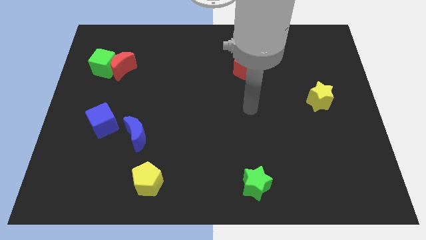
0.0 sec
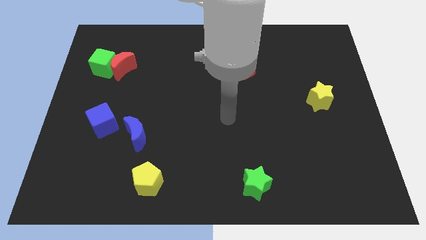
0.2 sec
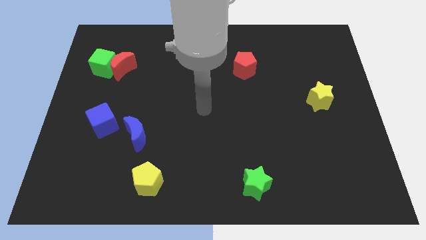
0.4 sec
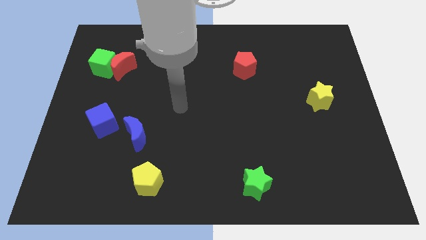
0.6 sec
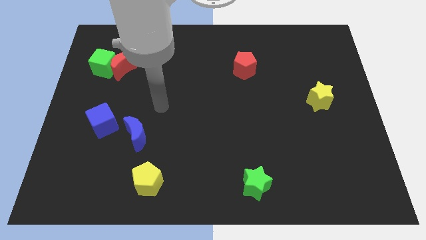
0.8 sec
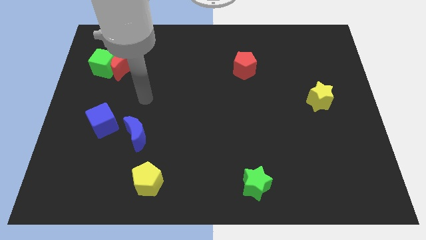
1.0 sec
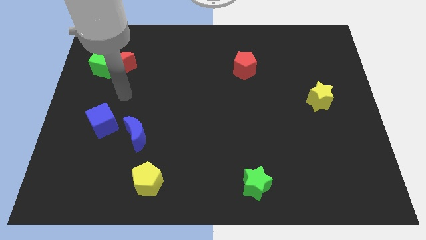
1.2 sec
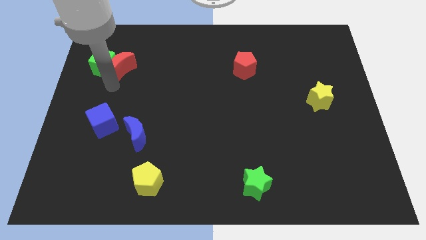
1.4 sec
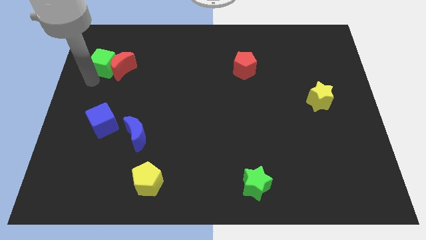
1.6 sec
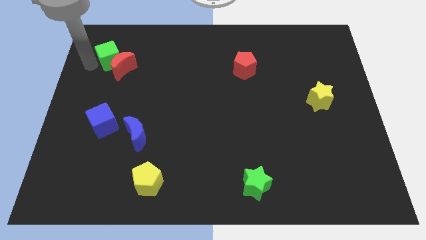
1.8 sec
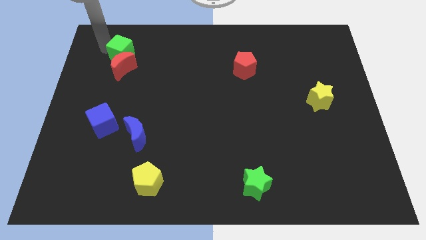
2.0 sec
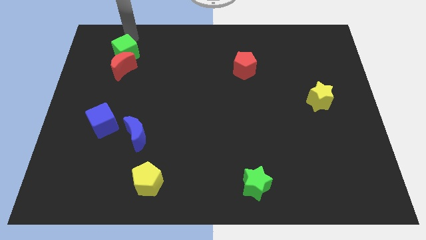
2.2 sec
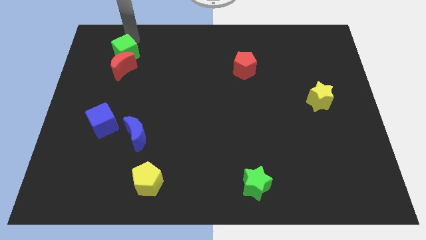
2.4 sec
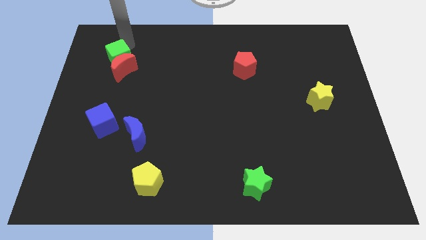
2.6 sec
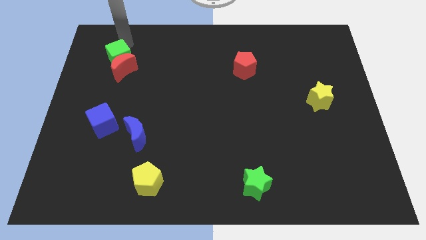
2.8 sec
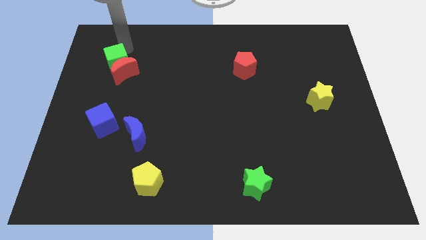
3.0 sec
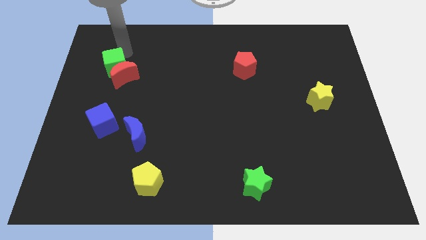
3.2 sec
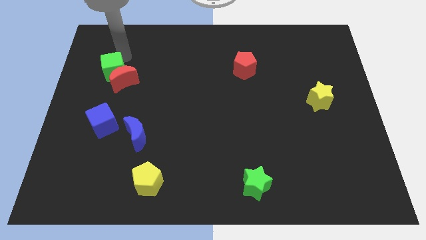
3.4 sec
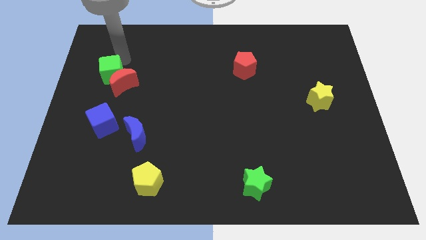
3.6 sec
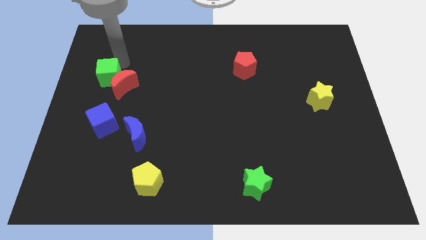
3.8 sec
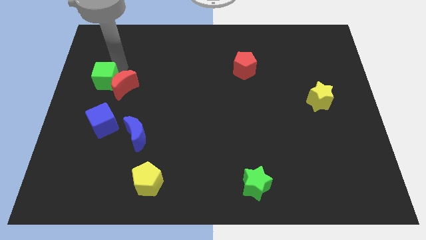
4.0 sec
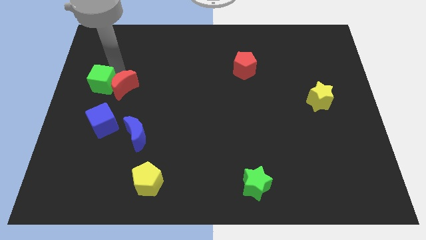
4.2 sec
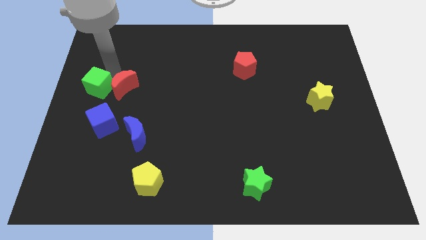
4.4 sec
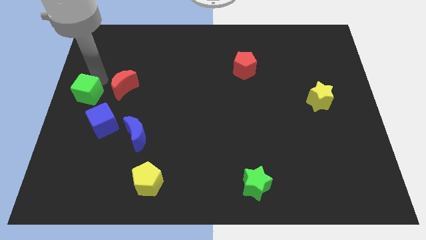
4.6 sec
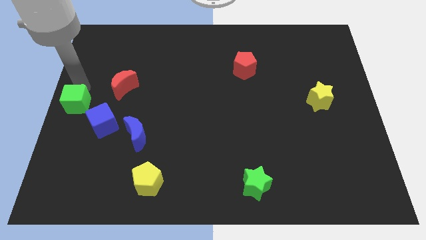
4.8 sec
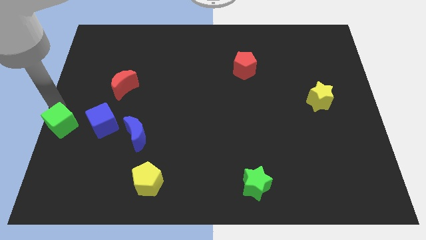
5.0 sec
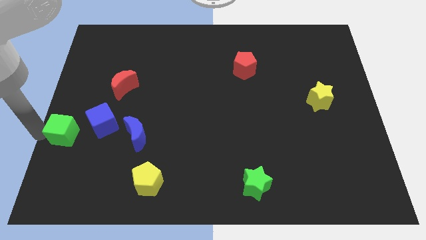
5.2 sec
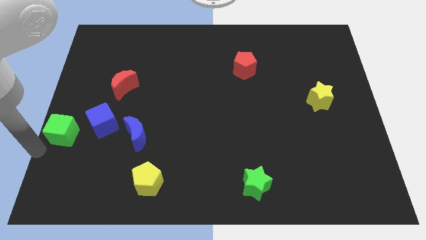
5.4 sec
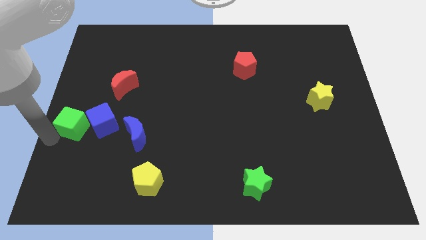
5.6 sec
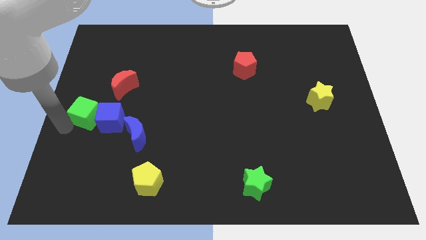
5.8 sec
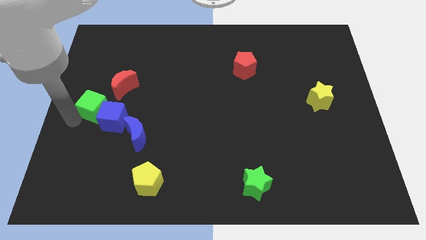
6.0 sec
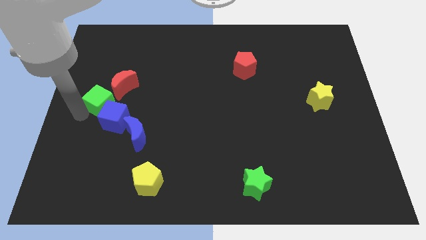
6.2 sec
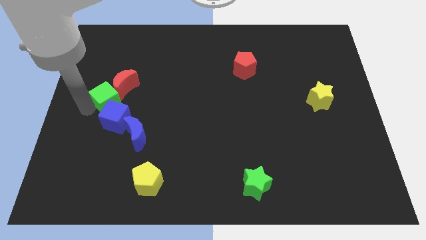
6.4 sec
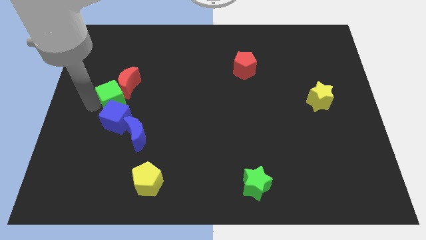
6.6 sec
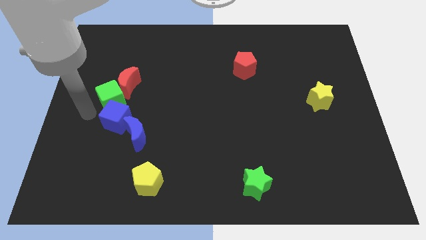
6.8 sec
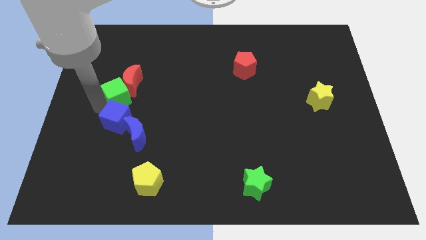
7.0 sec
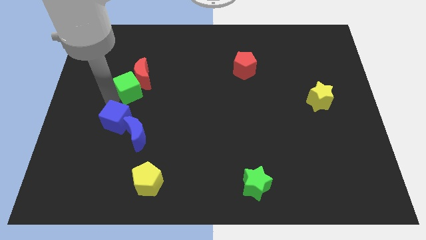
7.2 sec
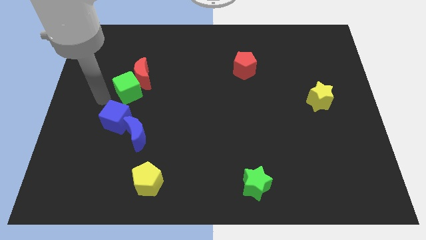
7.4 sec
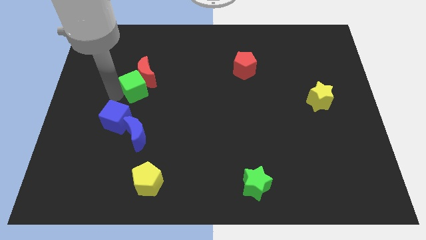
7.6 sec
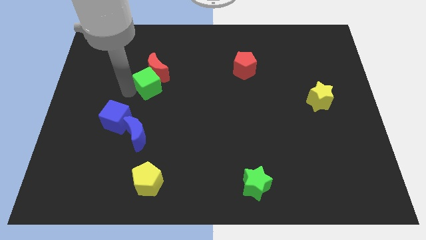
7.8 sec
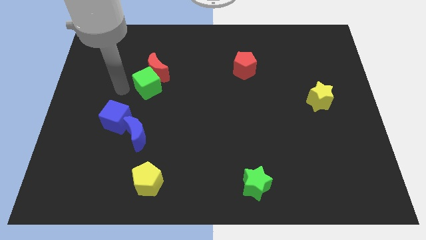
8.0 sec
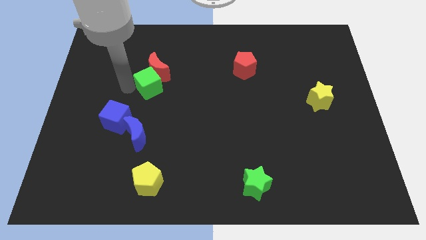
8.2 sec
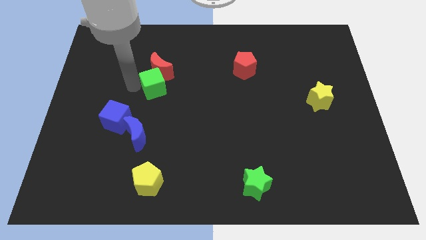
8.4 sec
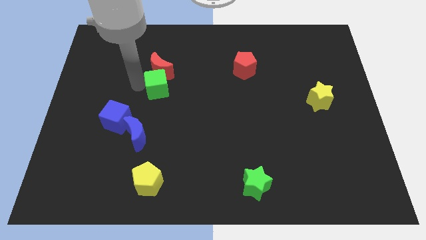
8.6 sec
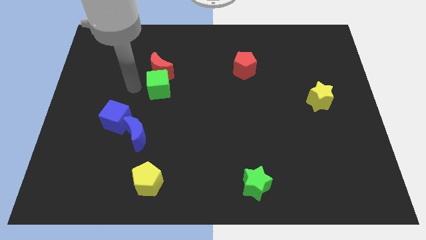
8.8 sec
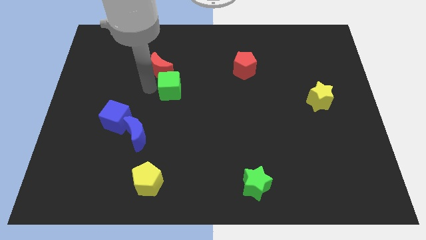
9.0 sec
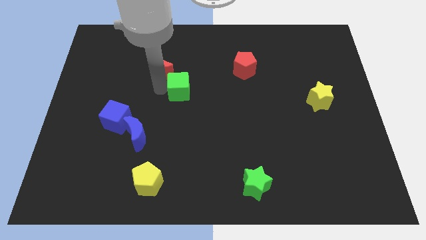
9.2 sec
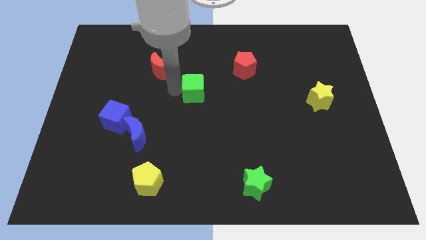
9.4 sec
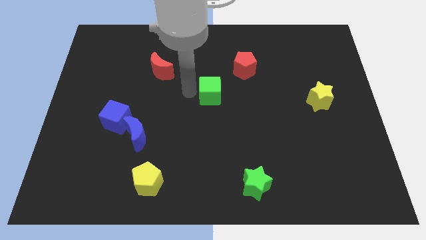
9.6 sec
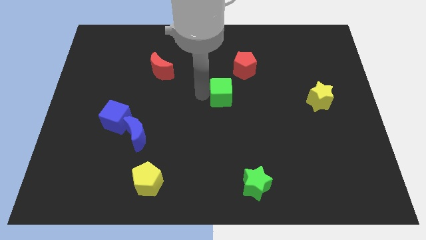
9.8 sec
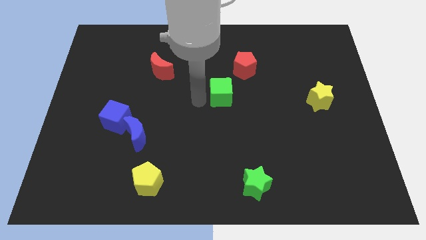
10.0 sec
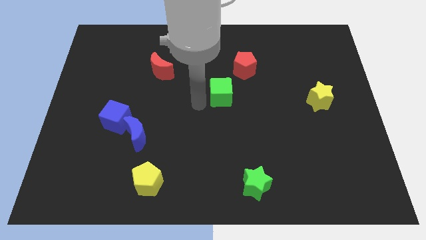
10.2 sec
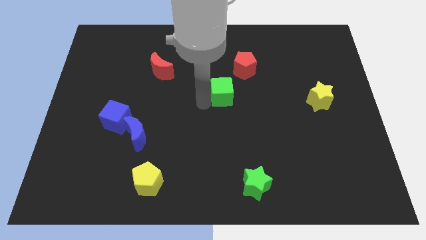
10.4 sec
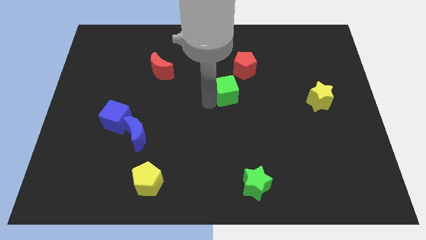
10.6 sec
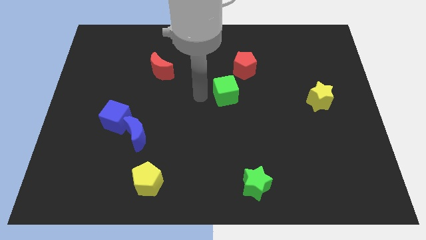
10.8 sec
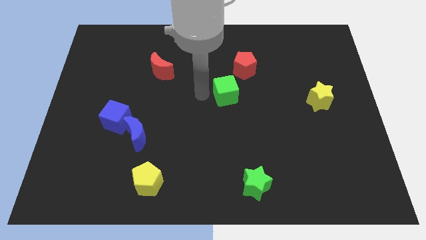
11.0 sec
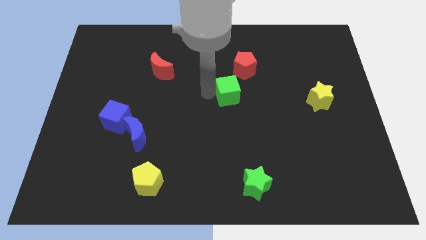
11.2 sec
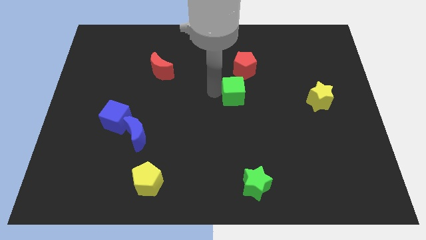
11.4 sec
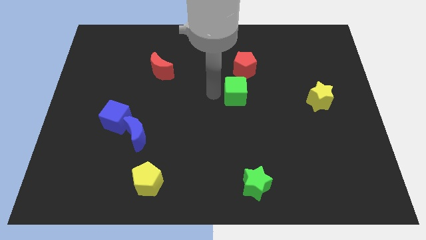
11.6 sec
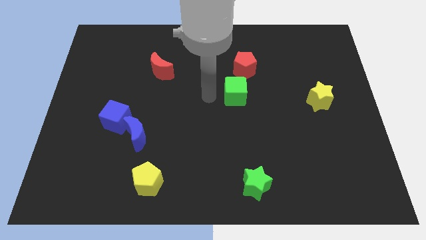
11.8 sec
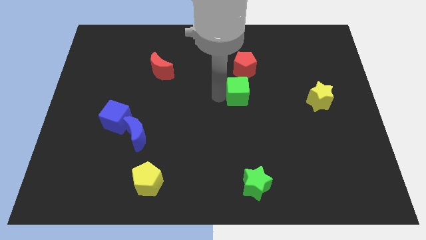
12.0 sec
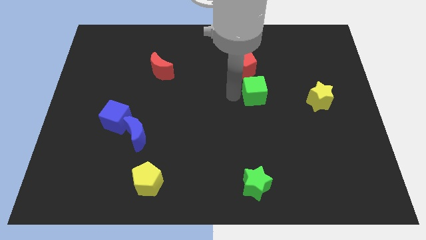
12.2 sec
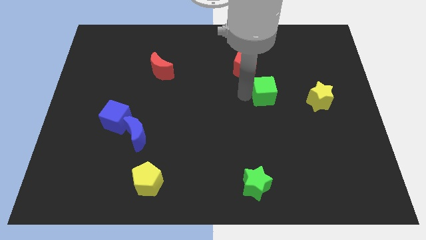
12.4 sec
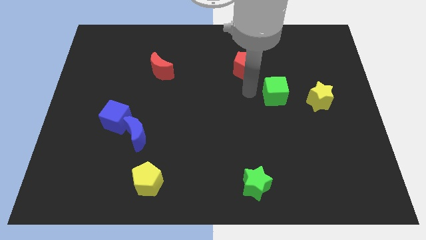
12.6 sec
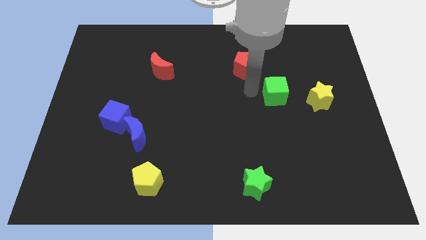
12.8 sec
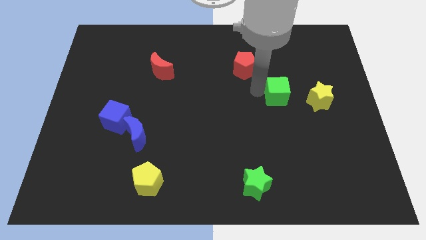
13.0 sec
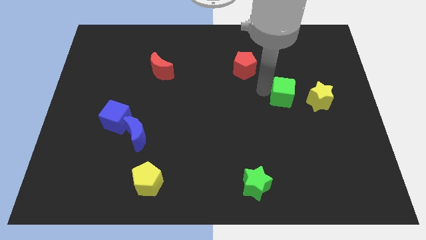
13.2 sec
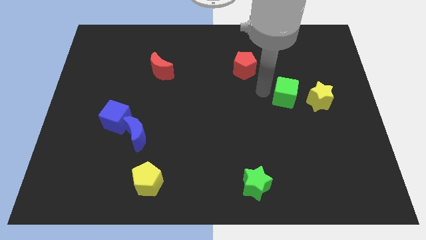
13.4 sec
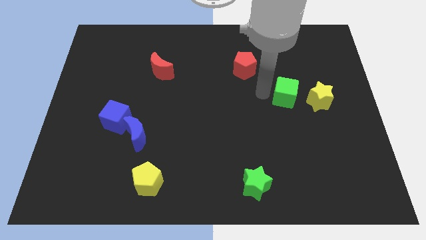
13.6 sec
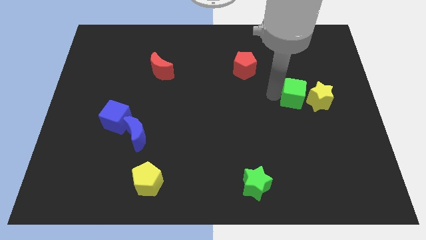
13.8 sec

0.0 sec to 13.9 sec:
put the green cube towards the yellow star
